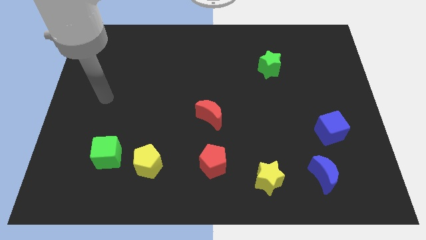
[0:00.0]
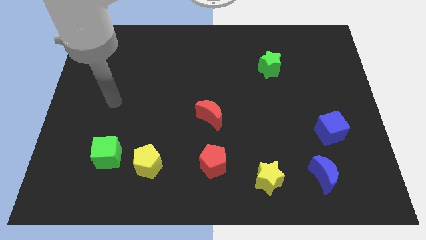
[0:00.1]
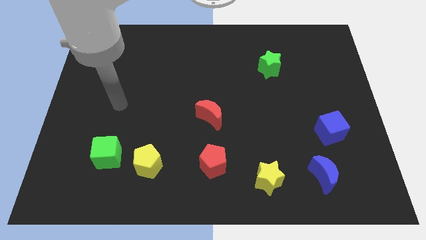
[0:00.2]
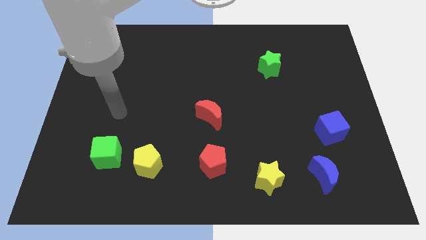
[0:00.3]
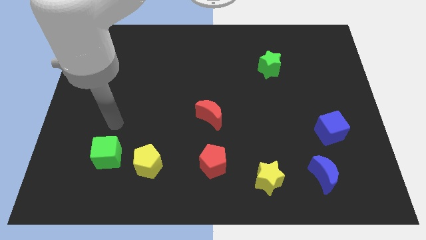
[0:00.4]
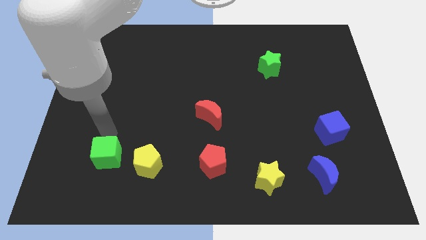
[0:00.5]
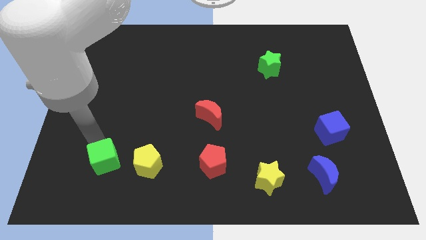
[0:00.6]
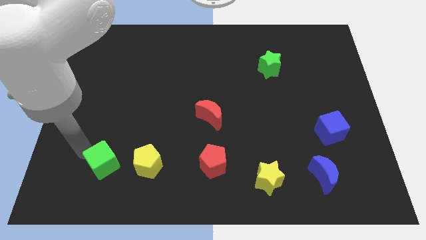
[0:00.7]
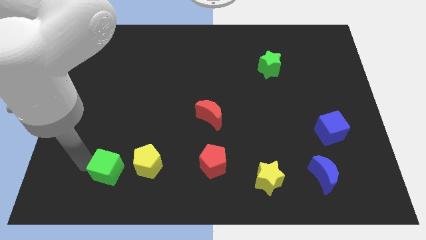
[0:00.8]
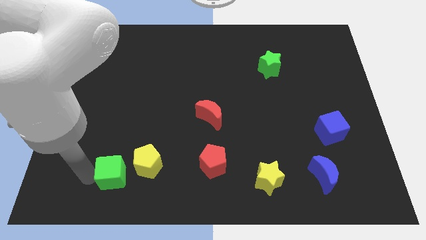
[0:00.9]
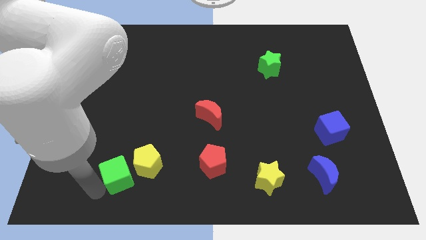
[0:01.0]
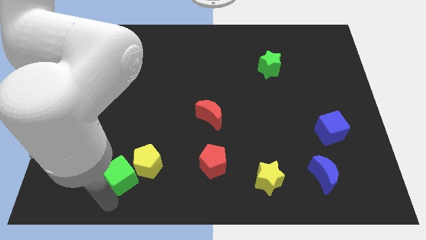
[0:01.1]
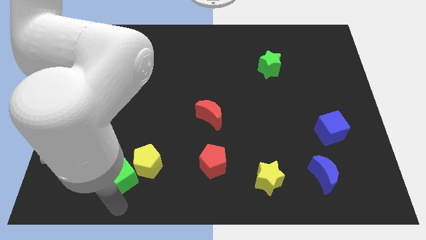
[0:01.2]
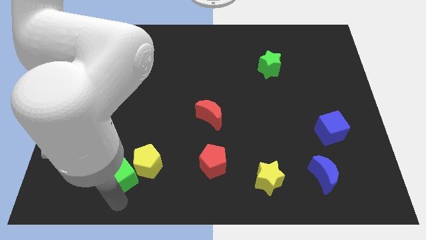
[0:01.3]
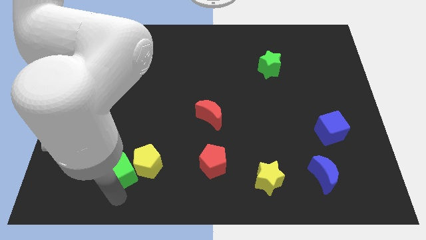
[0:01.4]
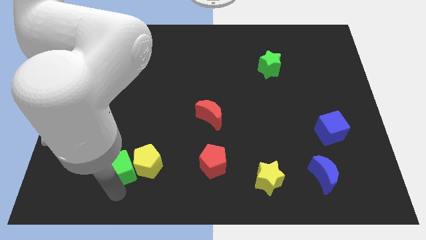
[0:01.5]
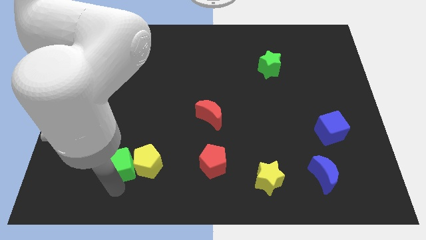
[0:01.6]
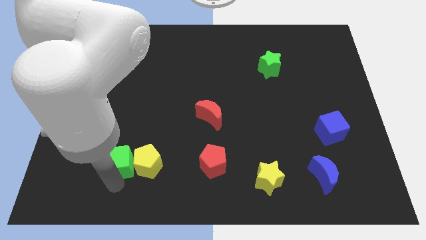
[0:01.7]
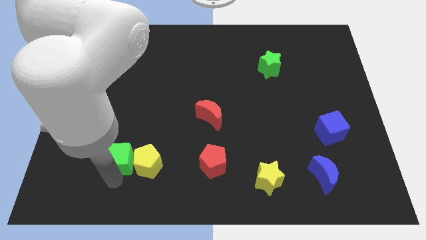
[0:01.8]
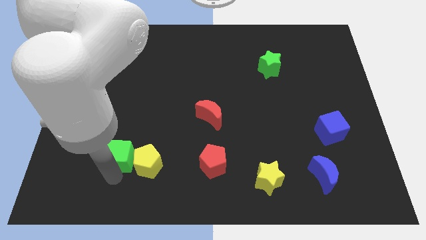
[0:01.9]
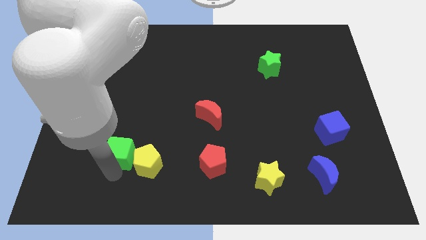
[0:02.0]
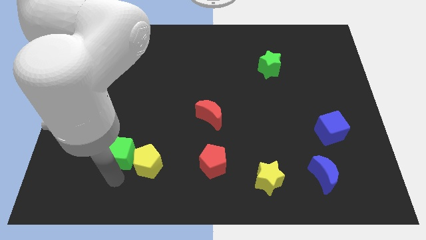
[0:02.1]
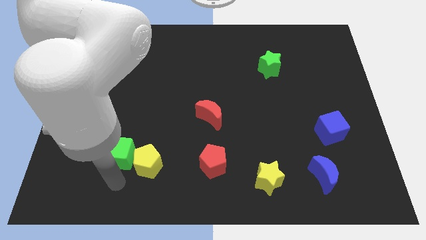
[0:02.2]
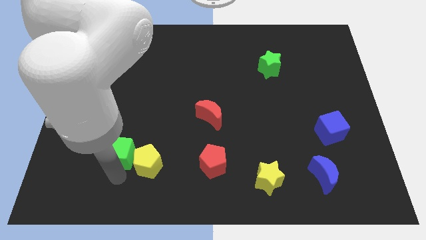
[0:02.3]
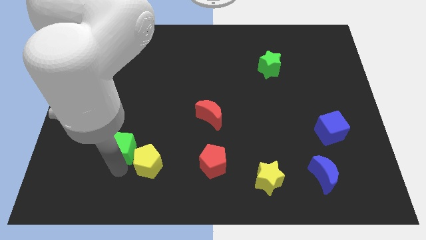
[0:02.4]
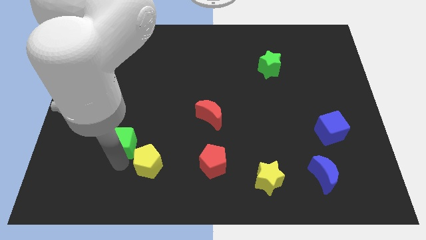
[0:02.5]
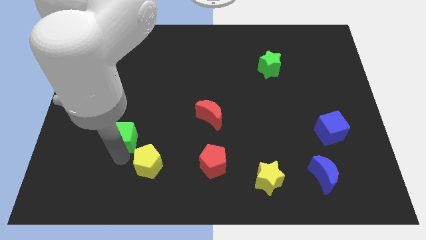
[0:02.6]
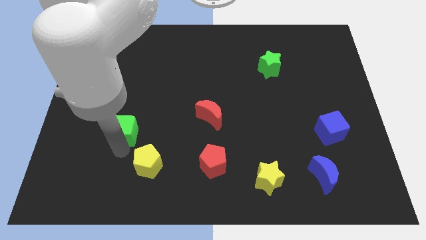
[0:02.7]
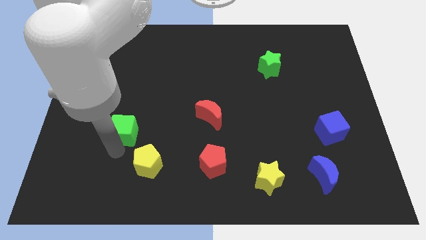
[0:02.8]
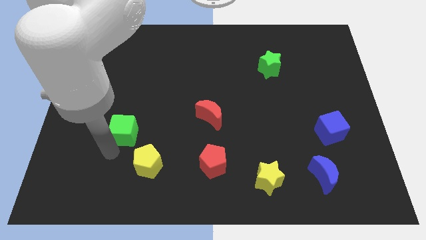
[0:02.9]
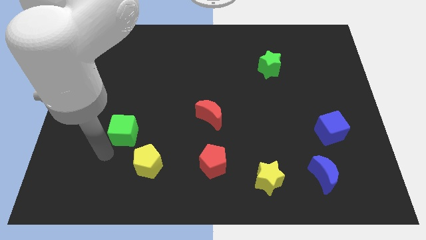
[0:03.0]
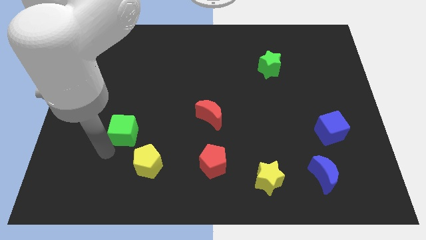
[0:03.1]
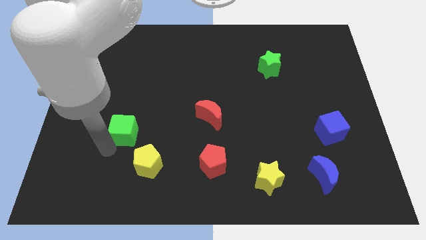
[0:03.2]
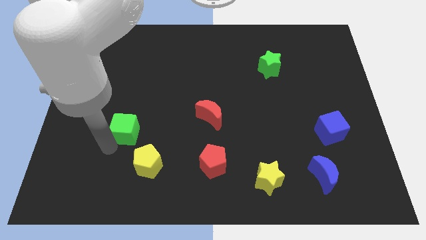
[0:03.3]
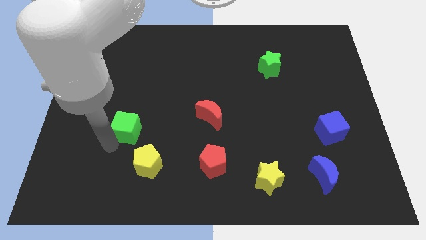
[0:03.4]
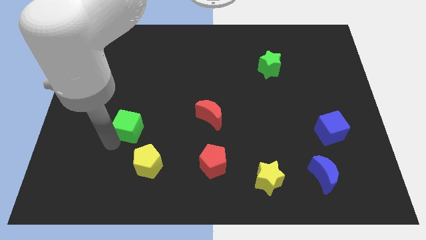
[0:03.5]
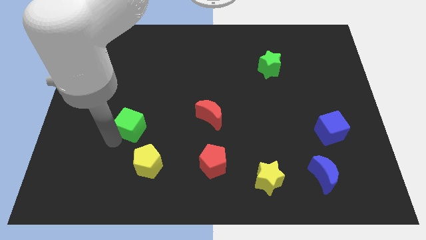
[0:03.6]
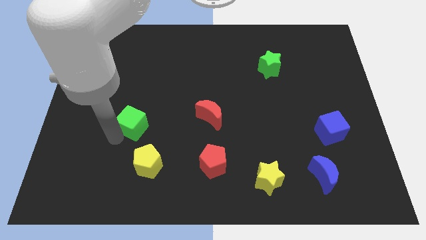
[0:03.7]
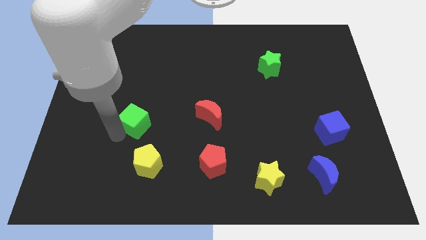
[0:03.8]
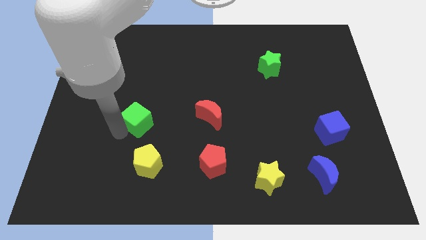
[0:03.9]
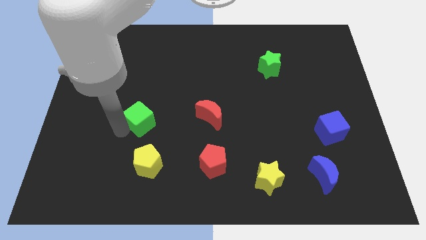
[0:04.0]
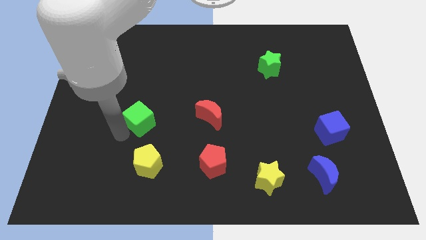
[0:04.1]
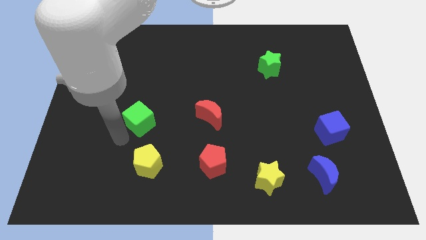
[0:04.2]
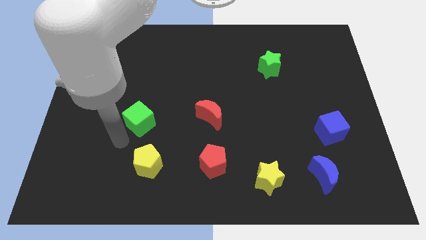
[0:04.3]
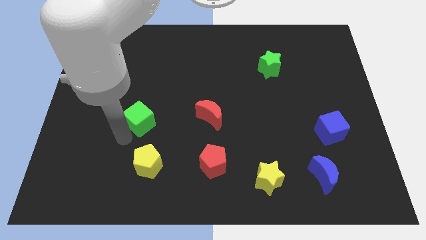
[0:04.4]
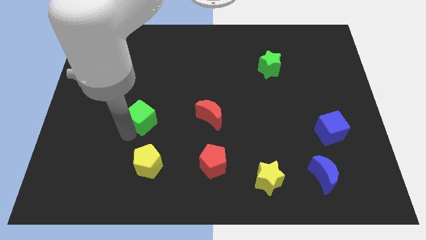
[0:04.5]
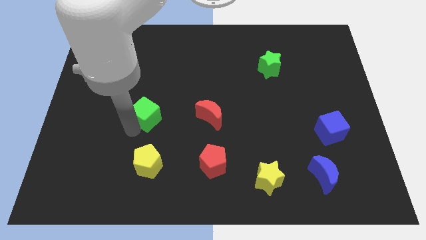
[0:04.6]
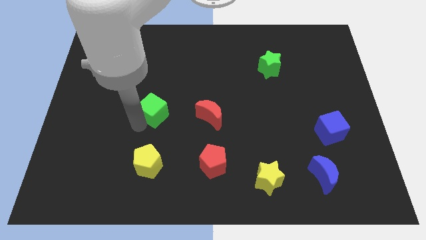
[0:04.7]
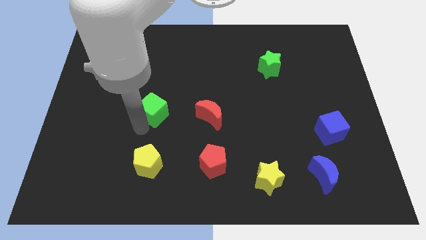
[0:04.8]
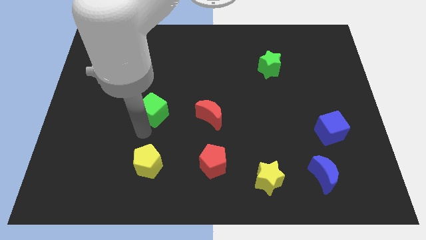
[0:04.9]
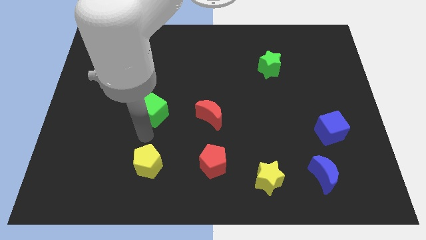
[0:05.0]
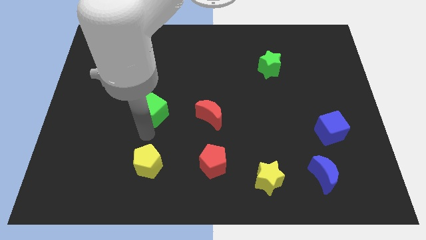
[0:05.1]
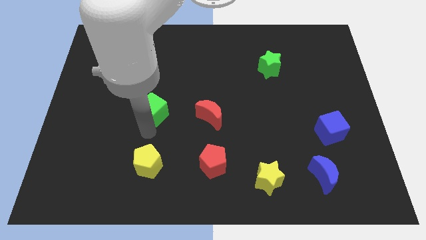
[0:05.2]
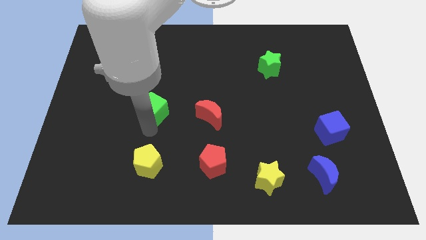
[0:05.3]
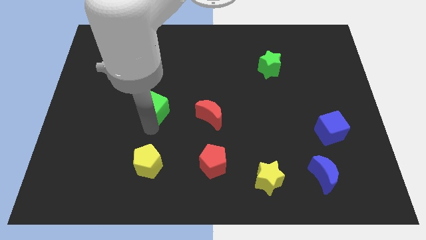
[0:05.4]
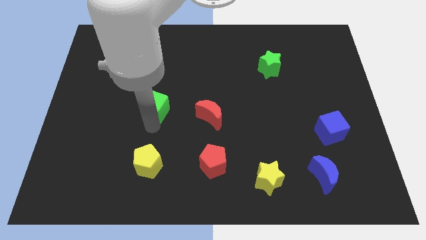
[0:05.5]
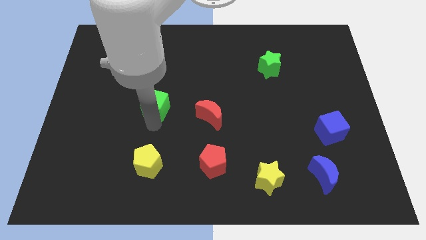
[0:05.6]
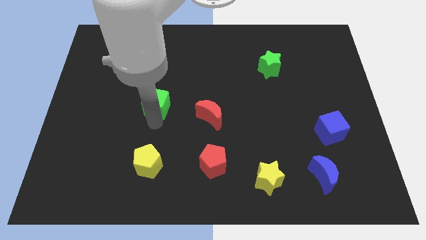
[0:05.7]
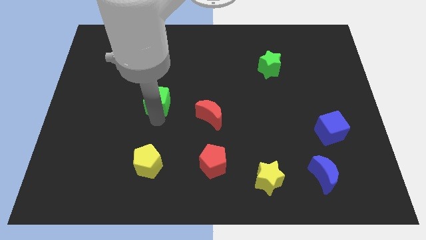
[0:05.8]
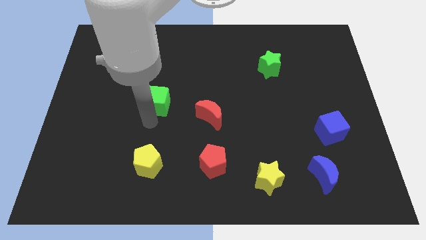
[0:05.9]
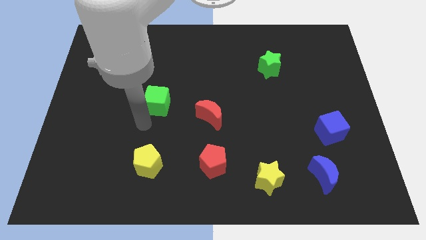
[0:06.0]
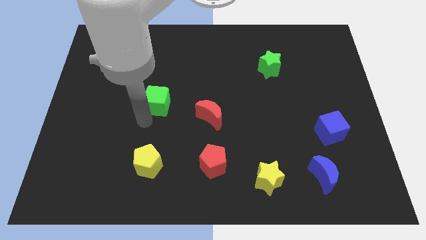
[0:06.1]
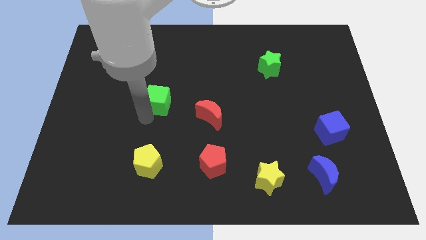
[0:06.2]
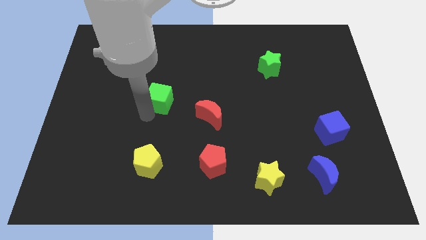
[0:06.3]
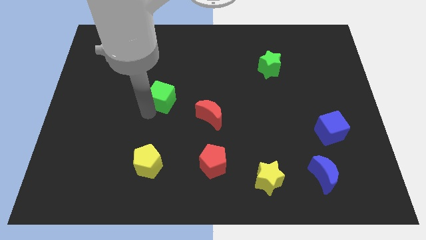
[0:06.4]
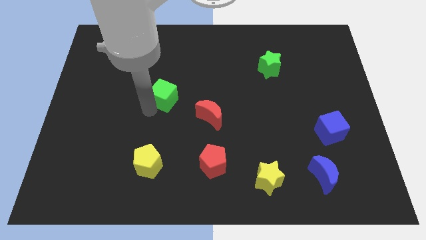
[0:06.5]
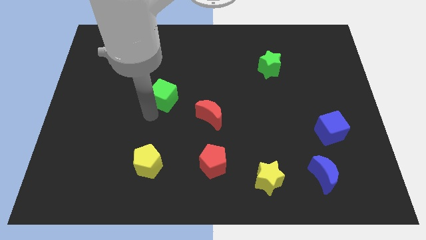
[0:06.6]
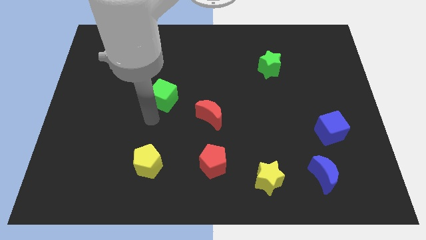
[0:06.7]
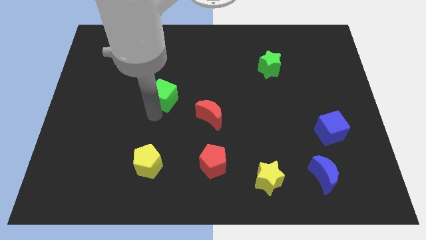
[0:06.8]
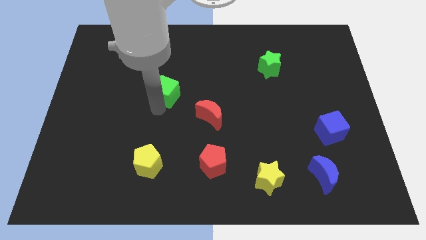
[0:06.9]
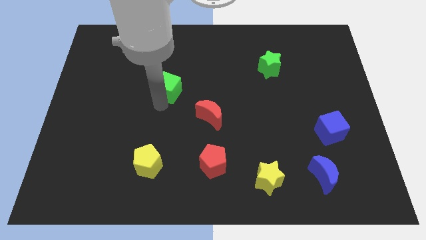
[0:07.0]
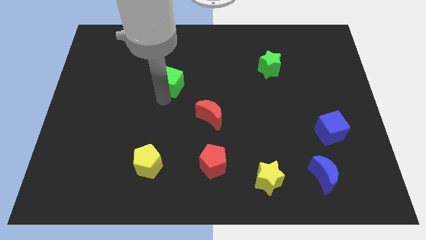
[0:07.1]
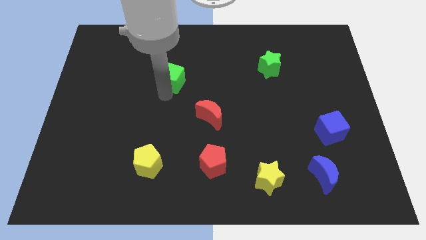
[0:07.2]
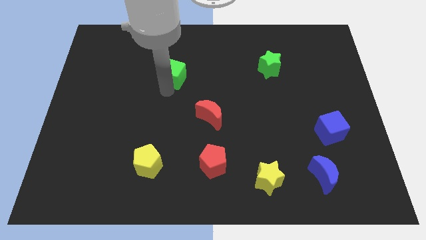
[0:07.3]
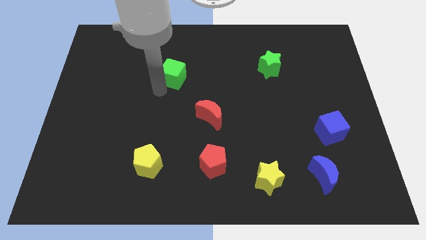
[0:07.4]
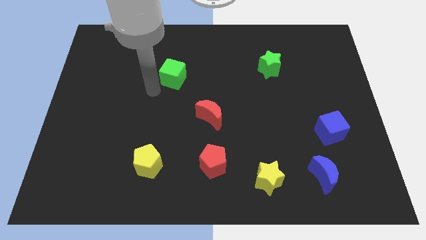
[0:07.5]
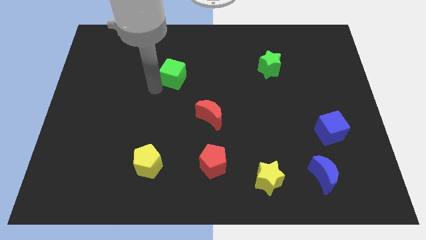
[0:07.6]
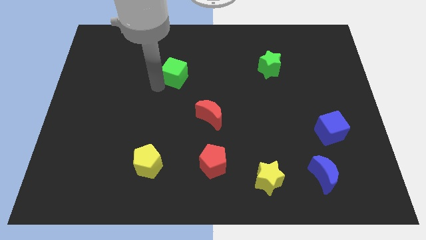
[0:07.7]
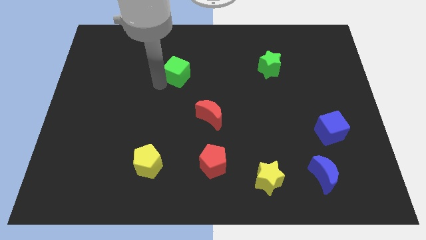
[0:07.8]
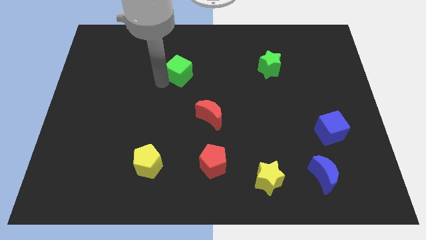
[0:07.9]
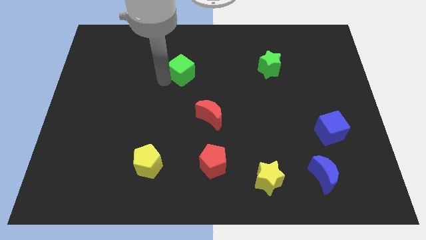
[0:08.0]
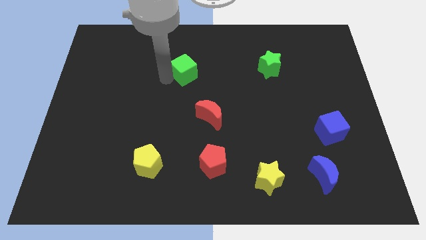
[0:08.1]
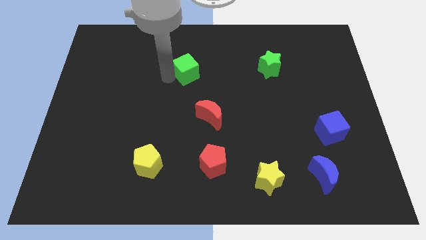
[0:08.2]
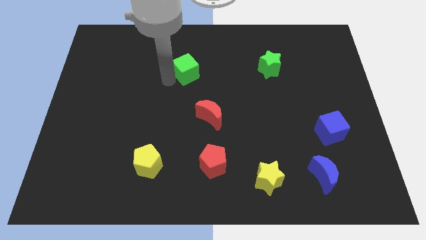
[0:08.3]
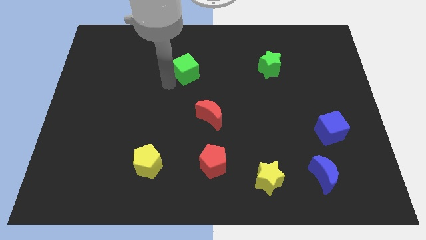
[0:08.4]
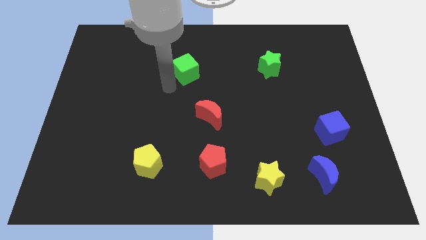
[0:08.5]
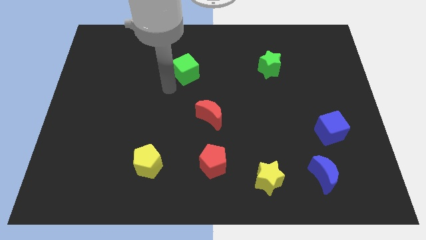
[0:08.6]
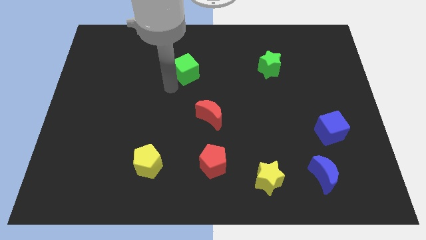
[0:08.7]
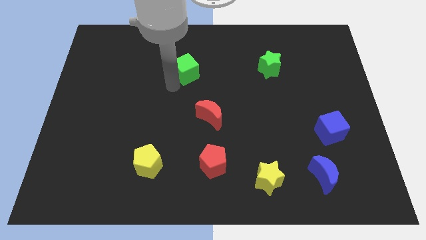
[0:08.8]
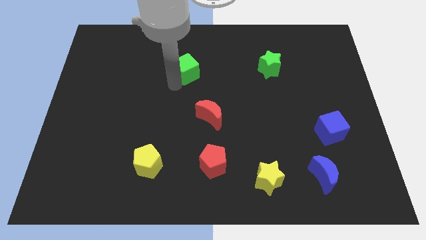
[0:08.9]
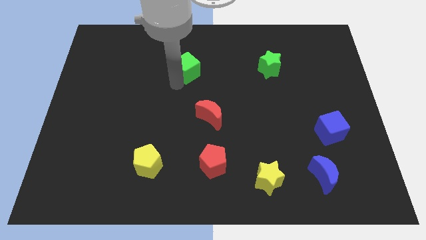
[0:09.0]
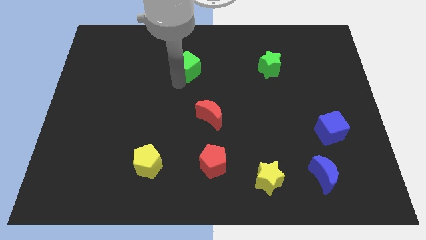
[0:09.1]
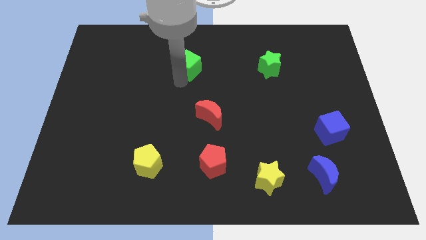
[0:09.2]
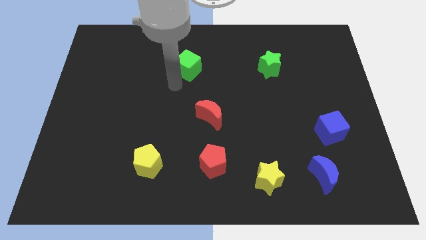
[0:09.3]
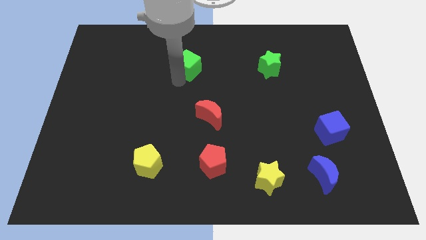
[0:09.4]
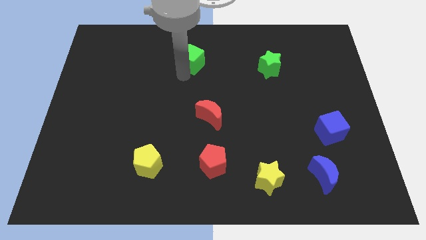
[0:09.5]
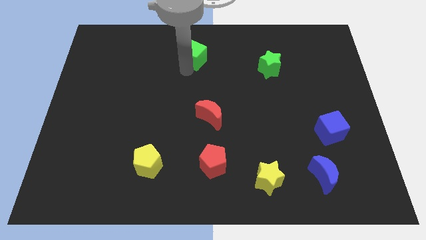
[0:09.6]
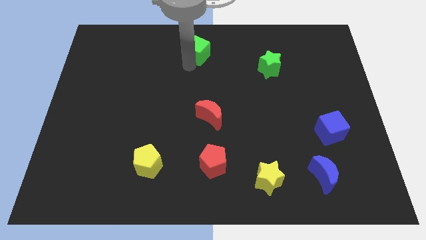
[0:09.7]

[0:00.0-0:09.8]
push the green cube to the top
